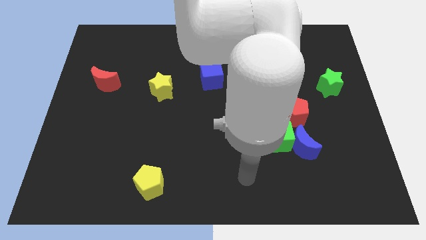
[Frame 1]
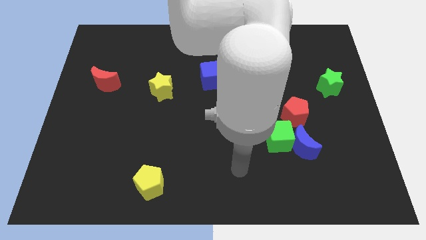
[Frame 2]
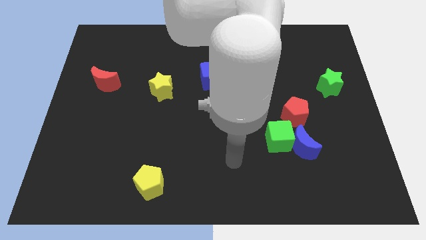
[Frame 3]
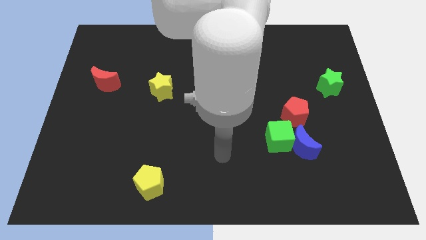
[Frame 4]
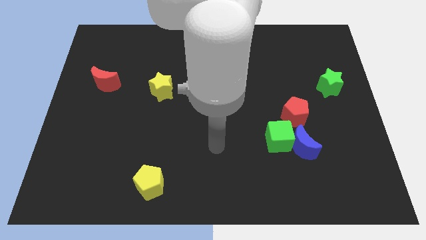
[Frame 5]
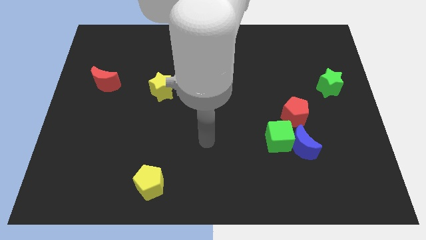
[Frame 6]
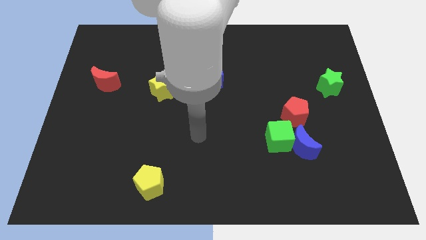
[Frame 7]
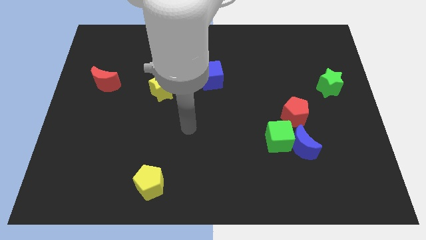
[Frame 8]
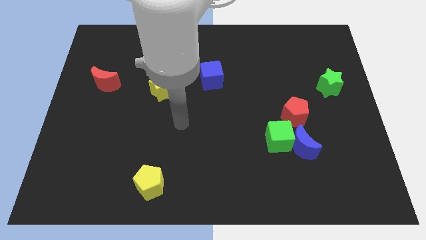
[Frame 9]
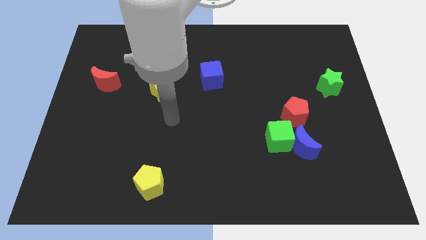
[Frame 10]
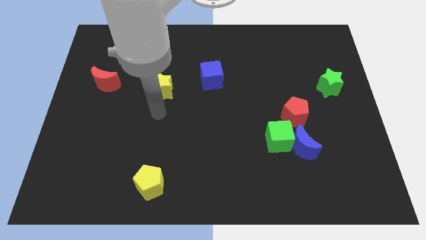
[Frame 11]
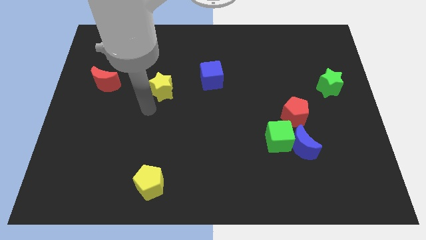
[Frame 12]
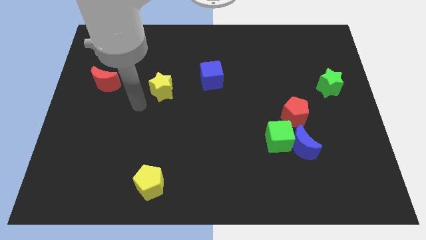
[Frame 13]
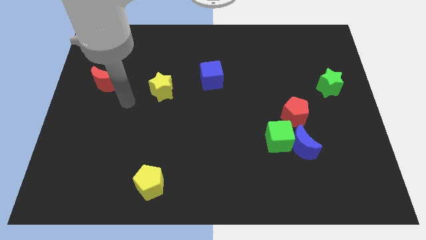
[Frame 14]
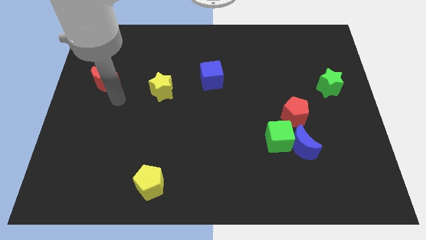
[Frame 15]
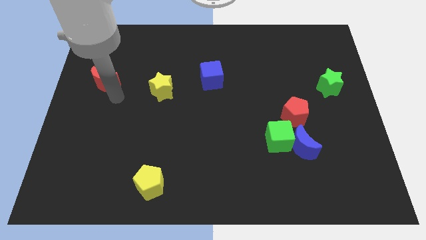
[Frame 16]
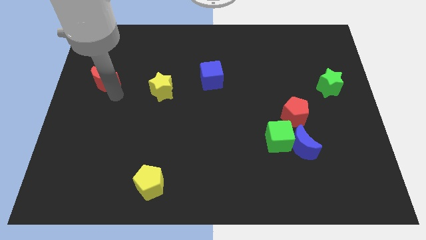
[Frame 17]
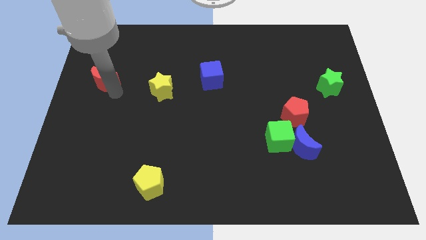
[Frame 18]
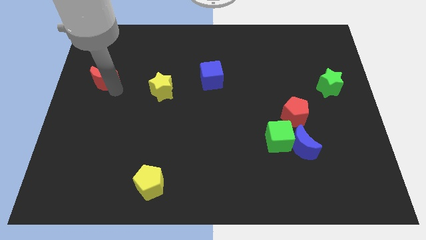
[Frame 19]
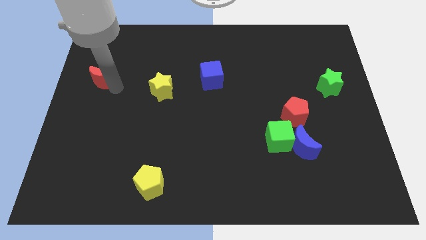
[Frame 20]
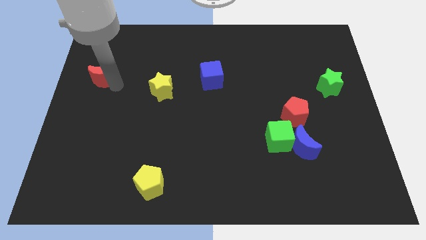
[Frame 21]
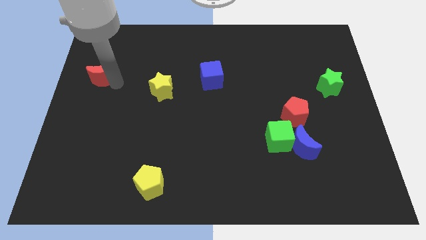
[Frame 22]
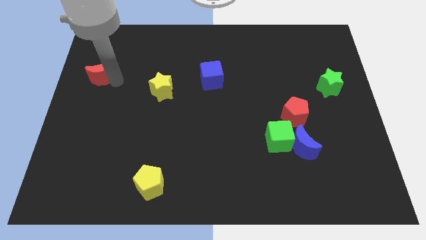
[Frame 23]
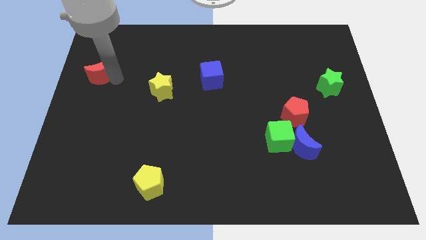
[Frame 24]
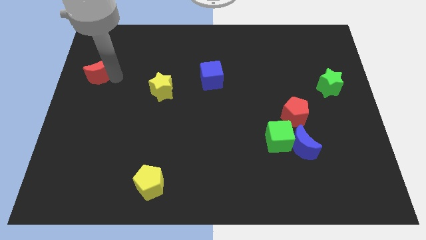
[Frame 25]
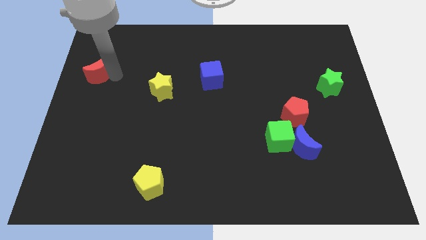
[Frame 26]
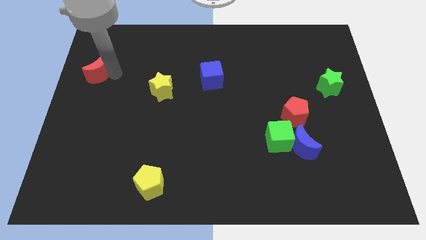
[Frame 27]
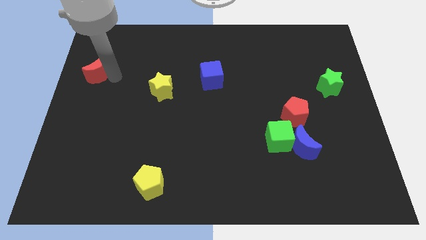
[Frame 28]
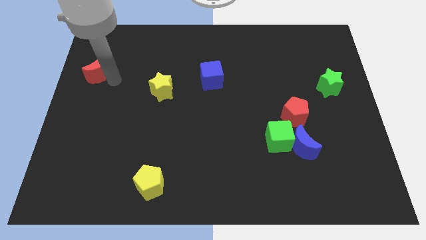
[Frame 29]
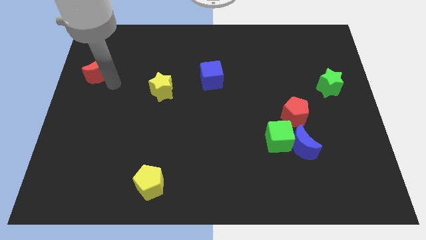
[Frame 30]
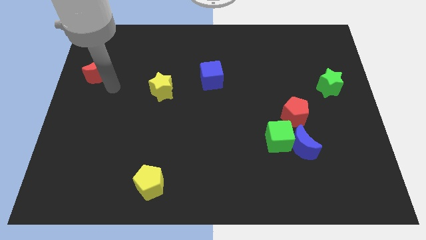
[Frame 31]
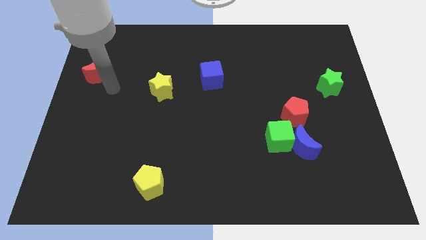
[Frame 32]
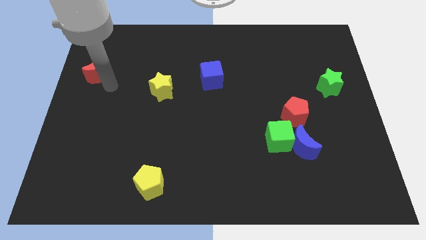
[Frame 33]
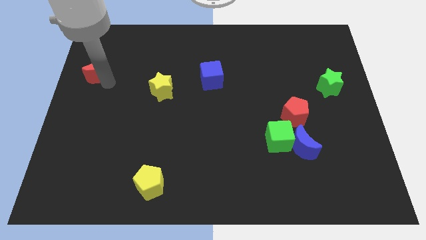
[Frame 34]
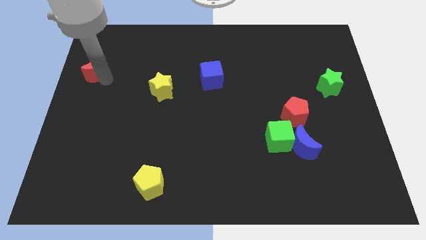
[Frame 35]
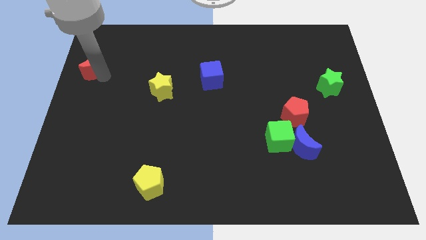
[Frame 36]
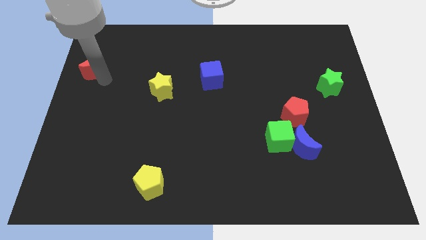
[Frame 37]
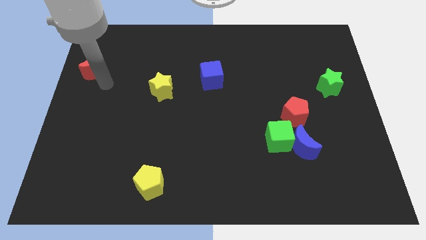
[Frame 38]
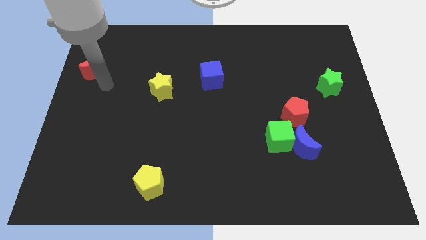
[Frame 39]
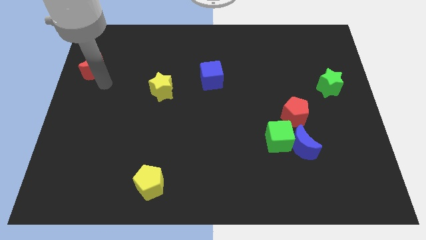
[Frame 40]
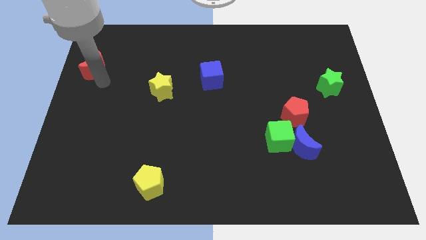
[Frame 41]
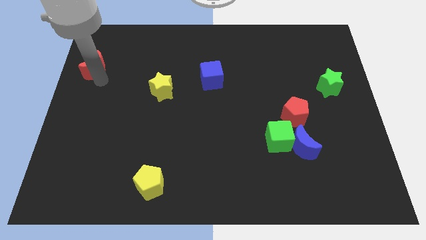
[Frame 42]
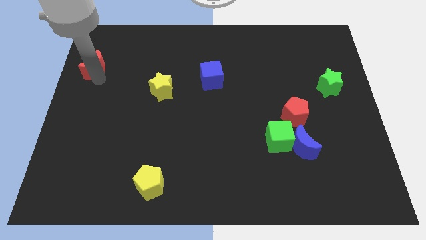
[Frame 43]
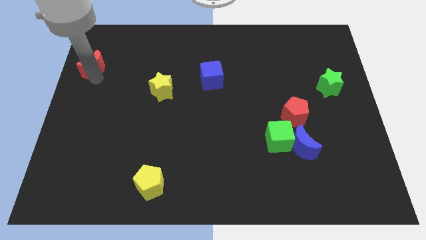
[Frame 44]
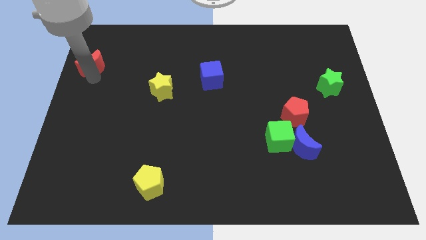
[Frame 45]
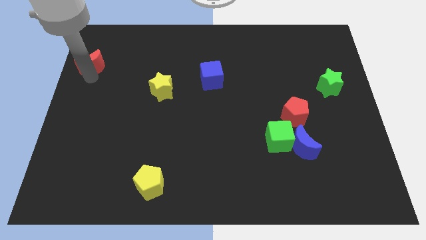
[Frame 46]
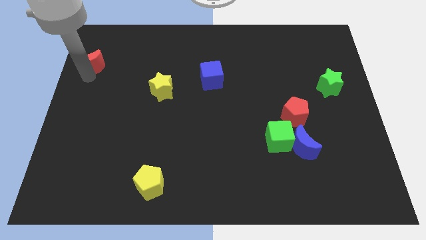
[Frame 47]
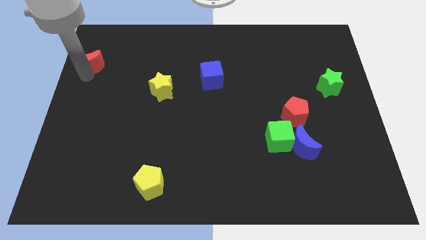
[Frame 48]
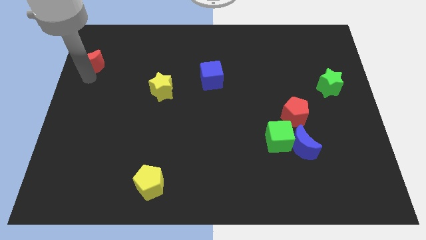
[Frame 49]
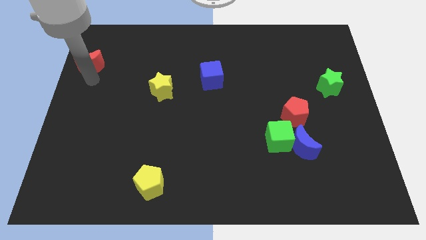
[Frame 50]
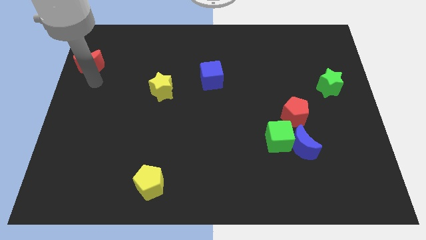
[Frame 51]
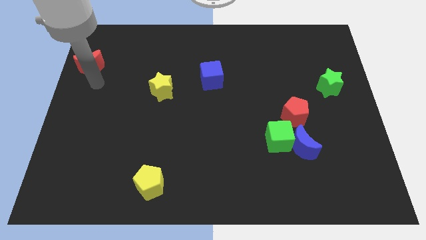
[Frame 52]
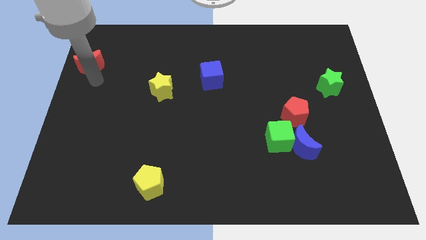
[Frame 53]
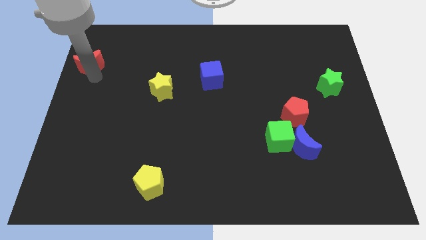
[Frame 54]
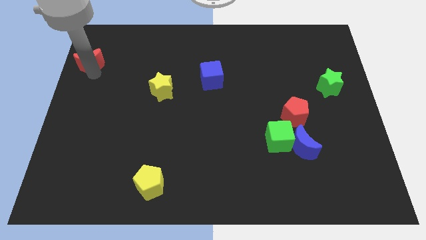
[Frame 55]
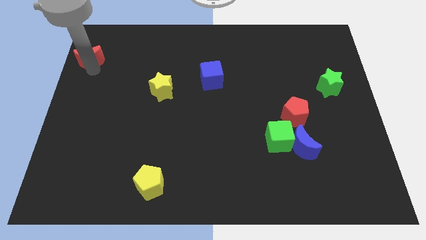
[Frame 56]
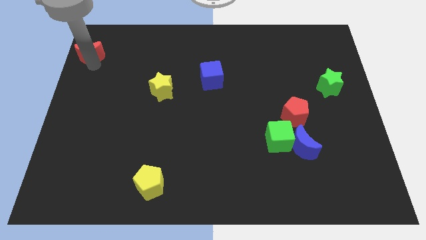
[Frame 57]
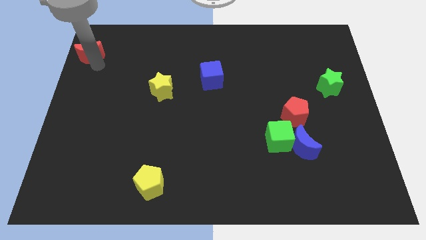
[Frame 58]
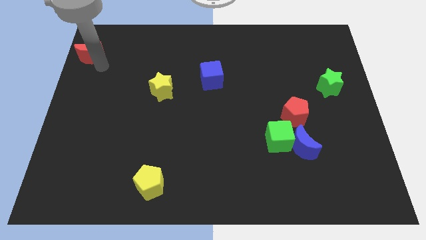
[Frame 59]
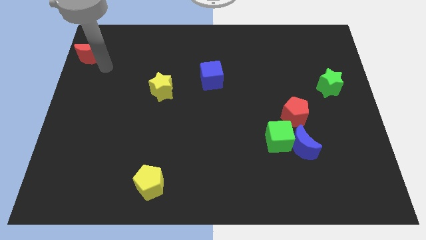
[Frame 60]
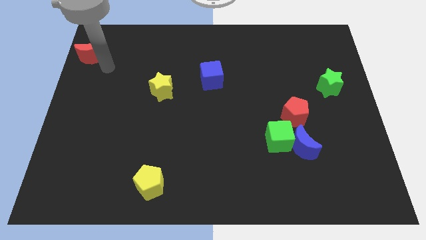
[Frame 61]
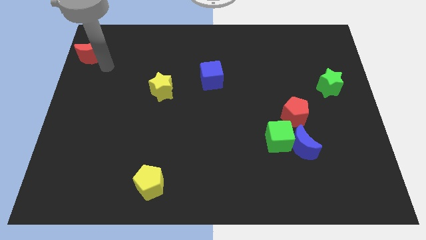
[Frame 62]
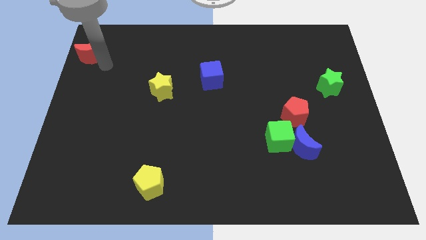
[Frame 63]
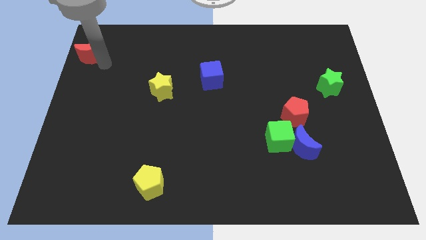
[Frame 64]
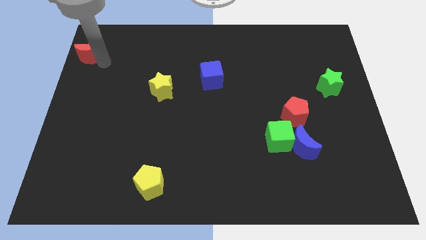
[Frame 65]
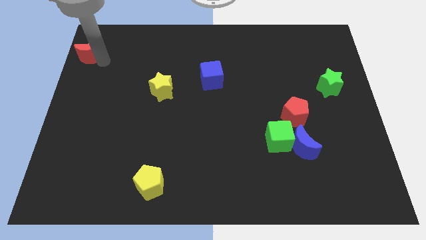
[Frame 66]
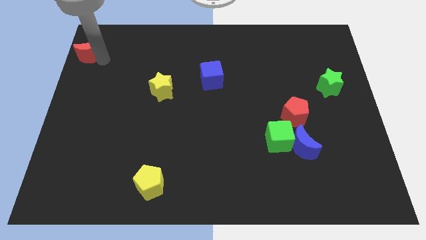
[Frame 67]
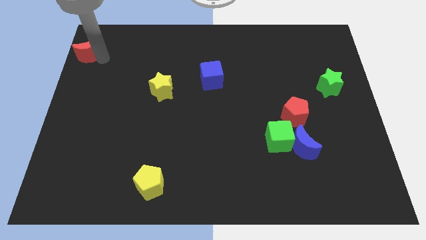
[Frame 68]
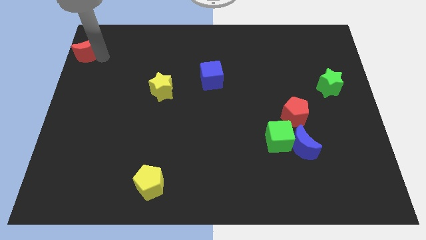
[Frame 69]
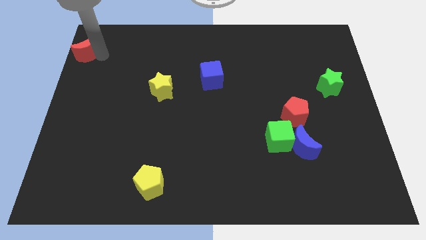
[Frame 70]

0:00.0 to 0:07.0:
move the red moon to the top left corner
